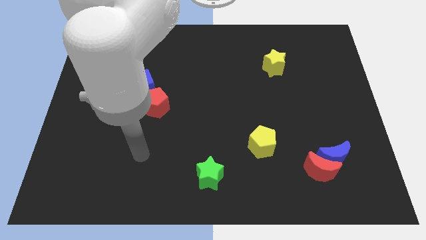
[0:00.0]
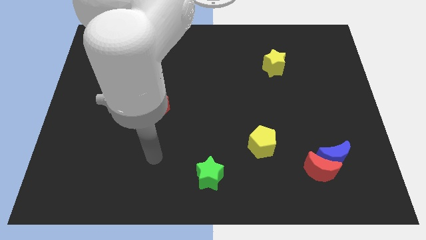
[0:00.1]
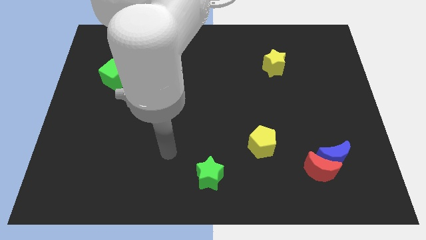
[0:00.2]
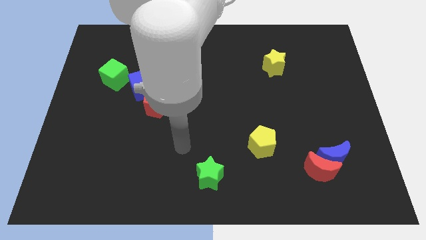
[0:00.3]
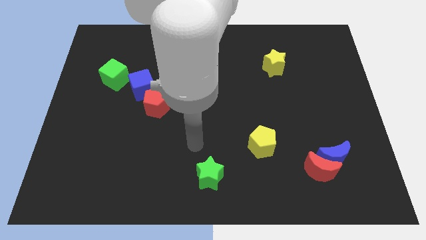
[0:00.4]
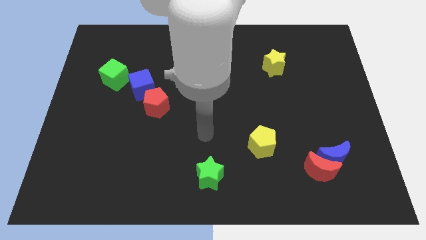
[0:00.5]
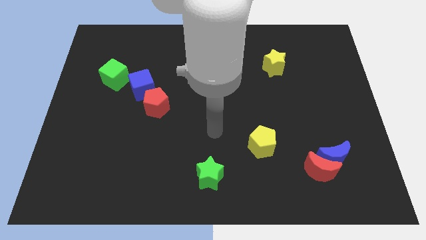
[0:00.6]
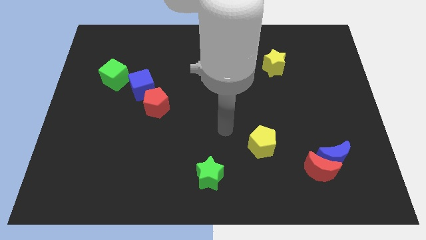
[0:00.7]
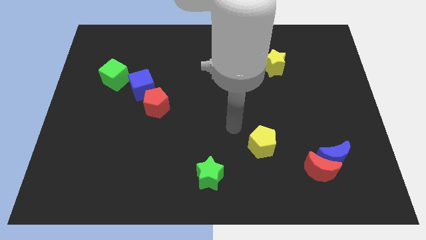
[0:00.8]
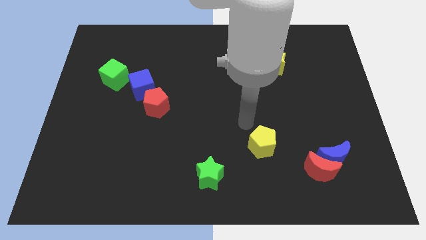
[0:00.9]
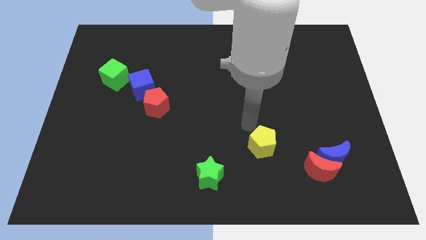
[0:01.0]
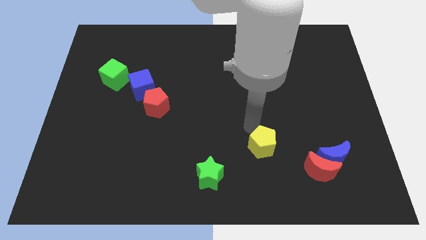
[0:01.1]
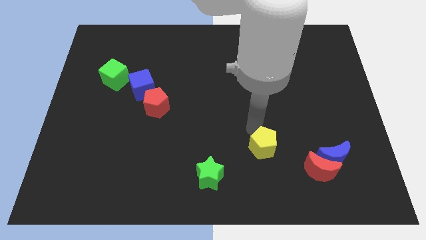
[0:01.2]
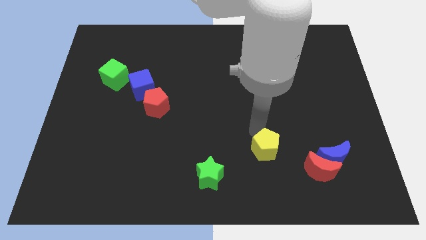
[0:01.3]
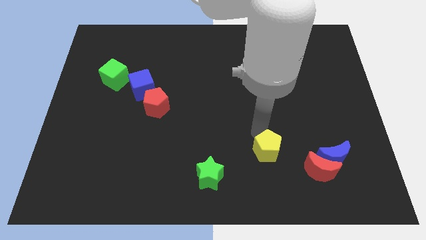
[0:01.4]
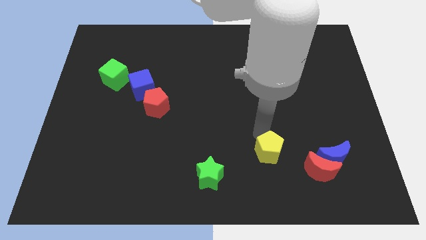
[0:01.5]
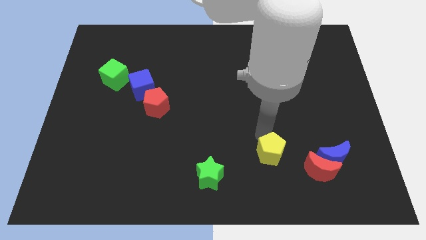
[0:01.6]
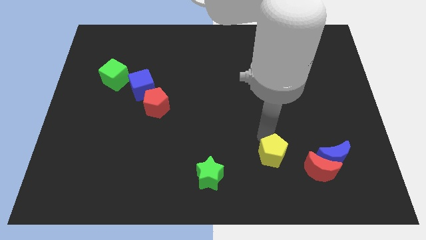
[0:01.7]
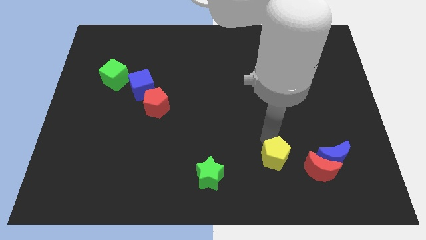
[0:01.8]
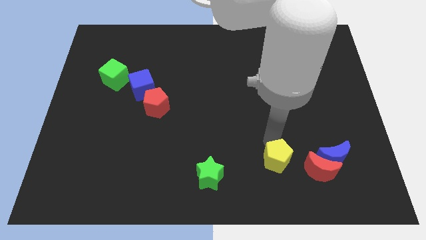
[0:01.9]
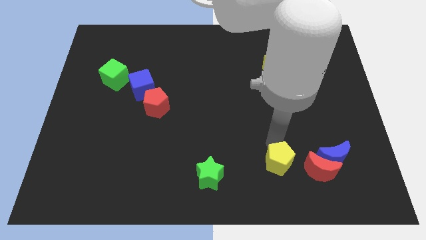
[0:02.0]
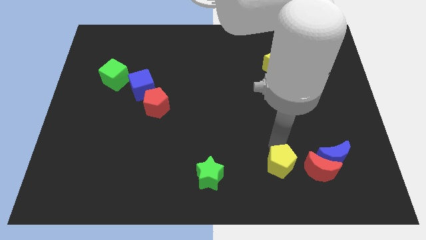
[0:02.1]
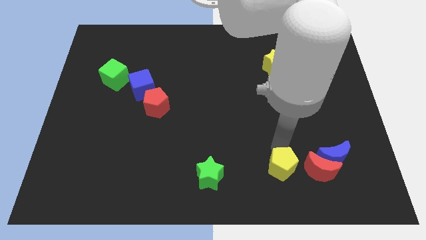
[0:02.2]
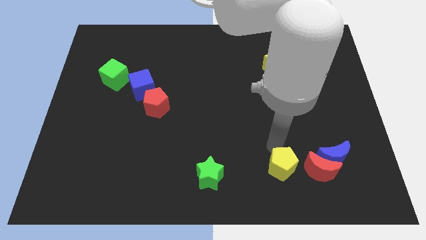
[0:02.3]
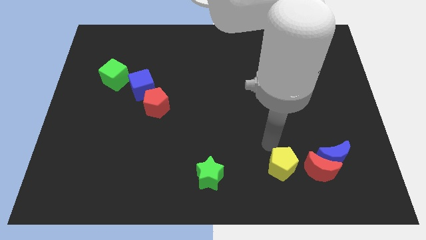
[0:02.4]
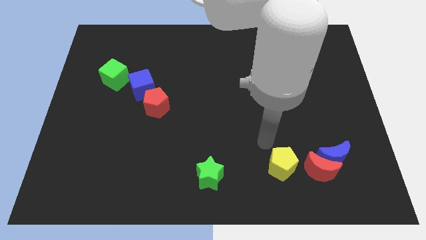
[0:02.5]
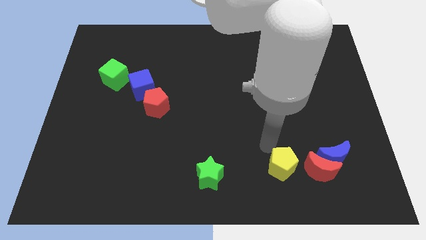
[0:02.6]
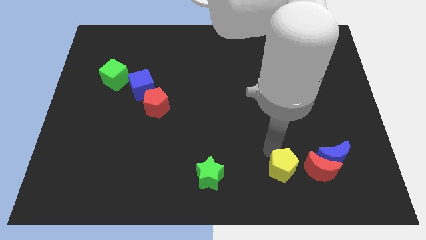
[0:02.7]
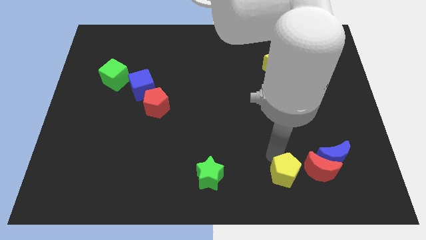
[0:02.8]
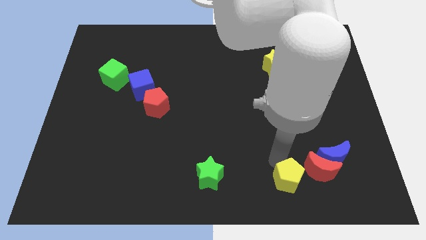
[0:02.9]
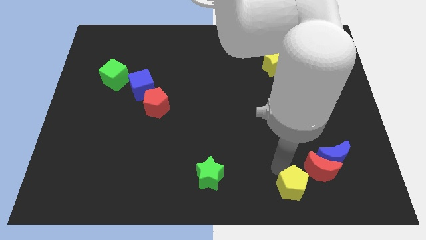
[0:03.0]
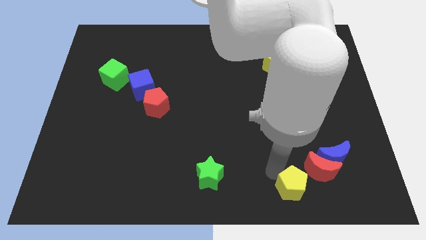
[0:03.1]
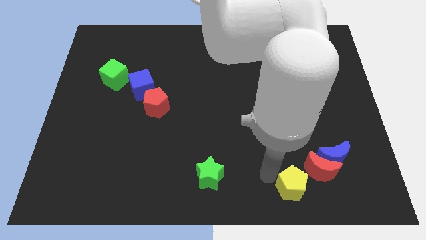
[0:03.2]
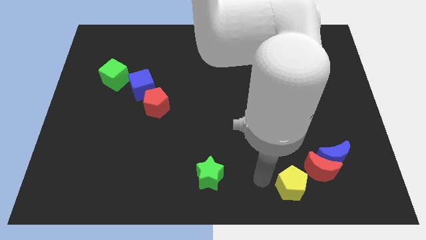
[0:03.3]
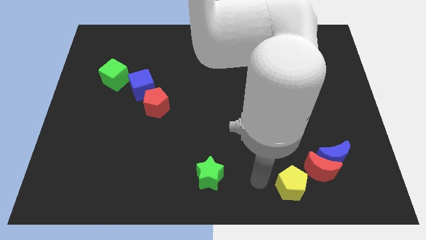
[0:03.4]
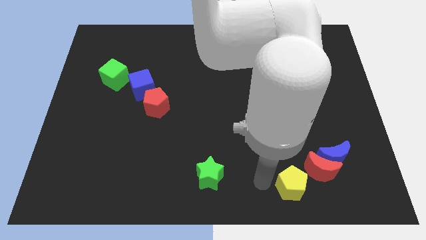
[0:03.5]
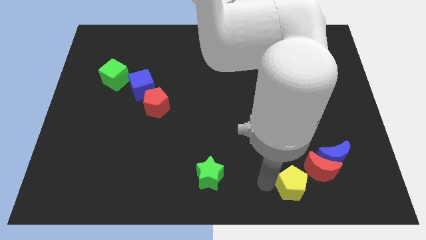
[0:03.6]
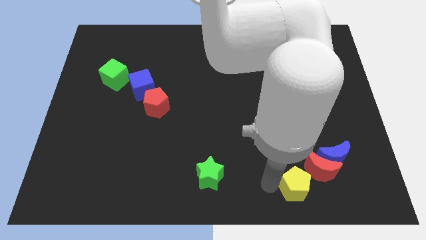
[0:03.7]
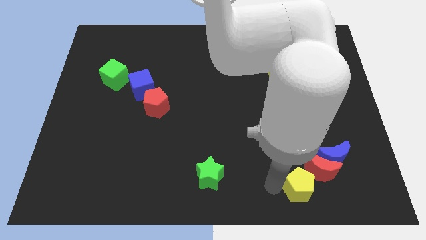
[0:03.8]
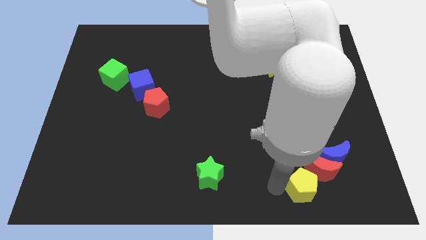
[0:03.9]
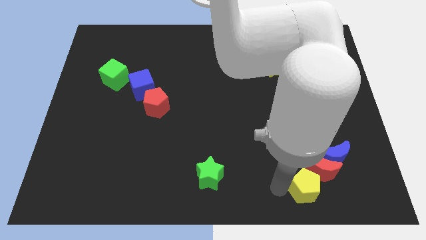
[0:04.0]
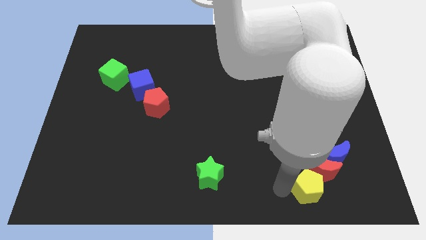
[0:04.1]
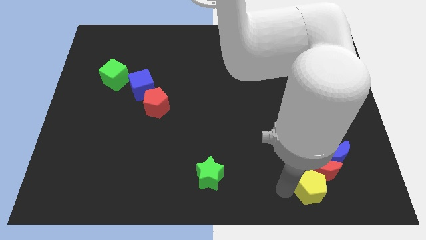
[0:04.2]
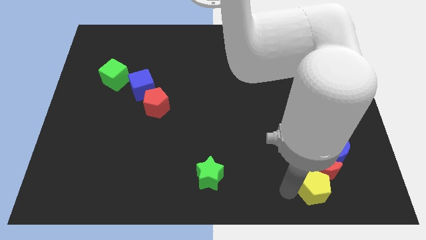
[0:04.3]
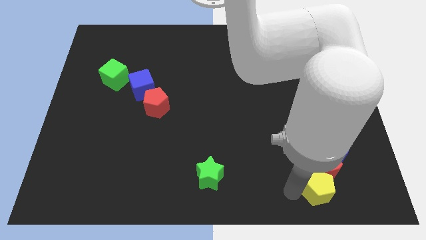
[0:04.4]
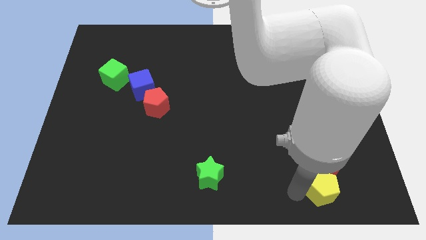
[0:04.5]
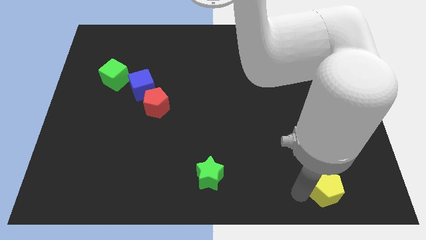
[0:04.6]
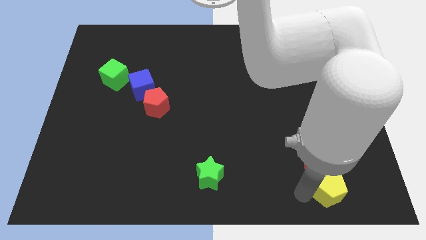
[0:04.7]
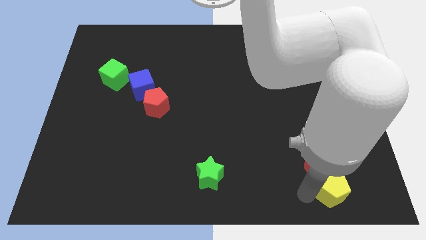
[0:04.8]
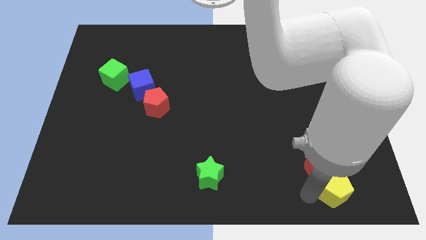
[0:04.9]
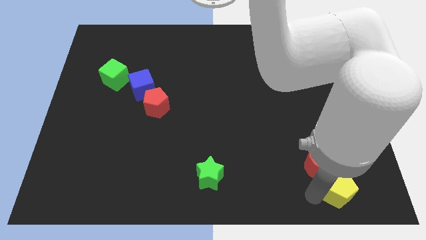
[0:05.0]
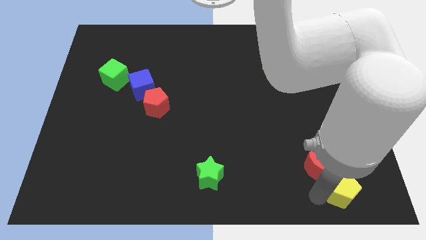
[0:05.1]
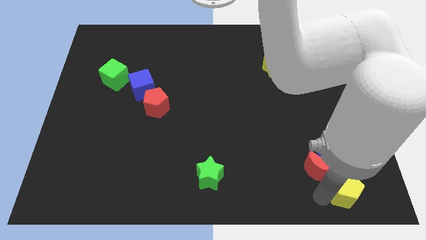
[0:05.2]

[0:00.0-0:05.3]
push the yellow pentagon to the bottom right of the board

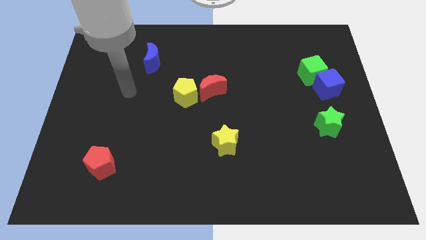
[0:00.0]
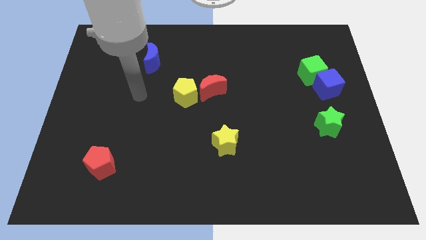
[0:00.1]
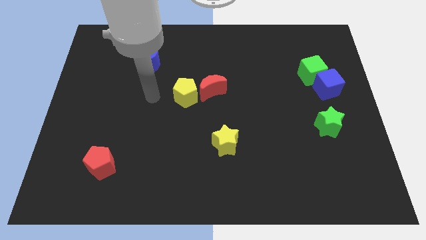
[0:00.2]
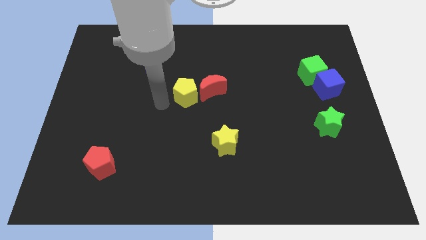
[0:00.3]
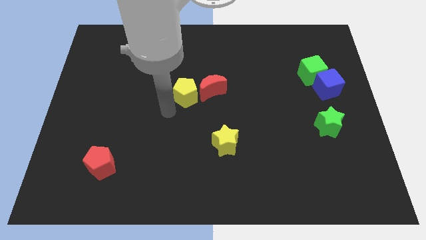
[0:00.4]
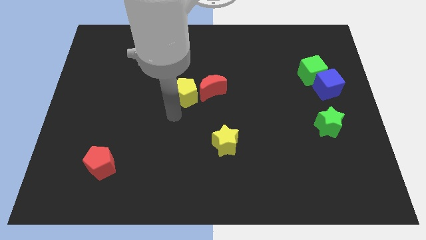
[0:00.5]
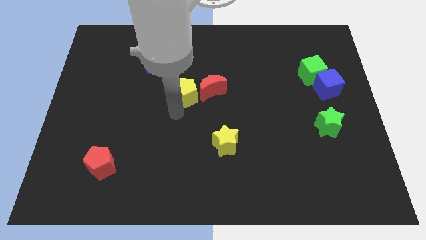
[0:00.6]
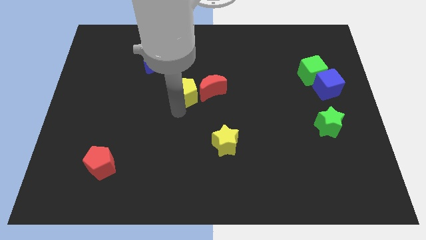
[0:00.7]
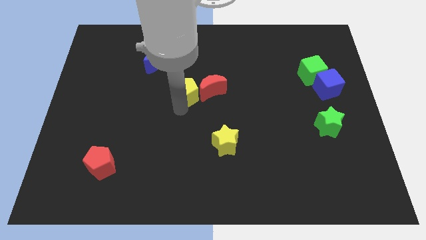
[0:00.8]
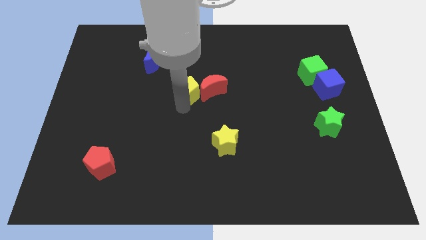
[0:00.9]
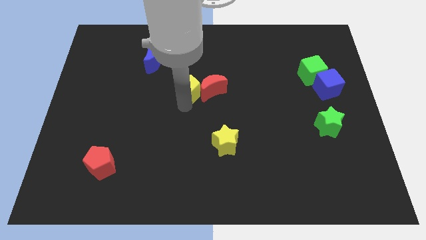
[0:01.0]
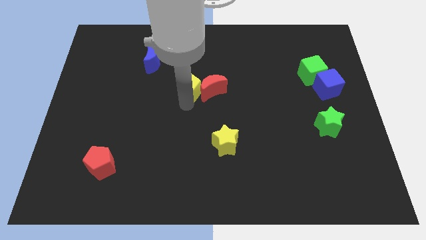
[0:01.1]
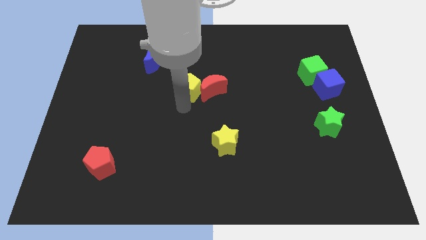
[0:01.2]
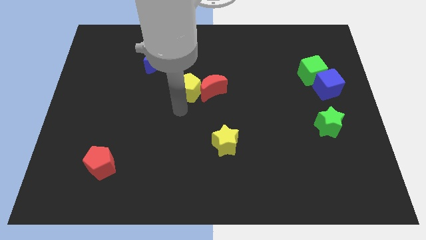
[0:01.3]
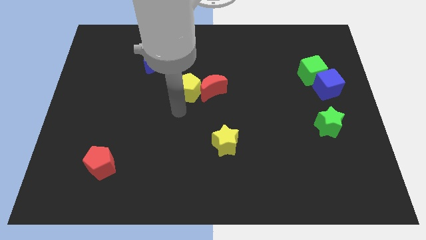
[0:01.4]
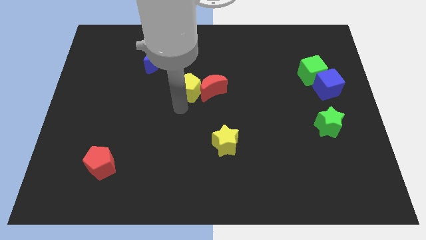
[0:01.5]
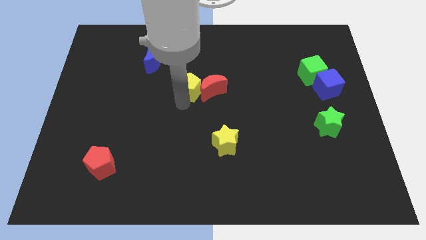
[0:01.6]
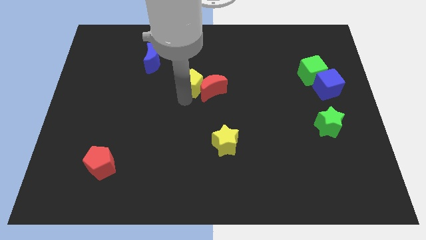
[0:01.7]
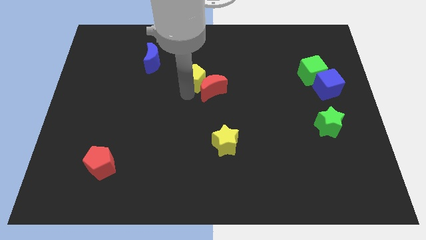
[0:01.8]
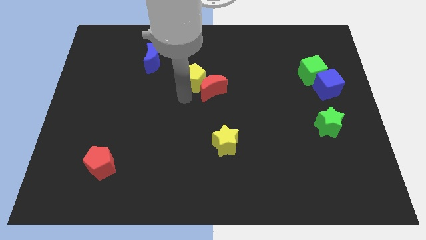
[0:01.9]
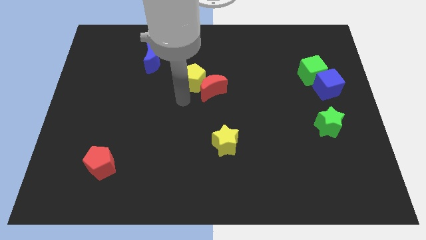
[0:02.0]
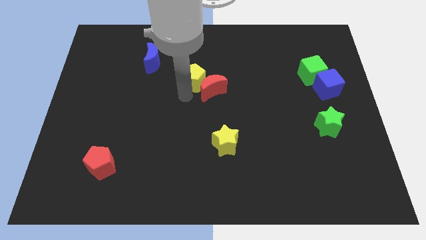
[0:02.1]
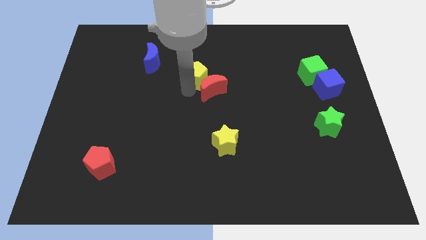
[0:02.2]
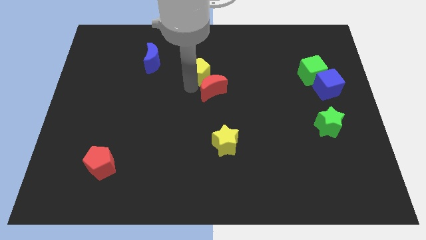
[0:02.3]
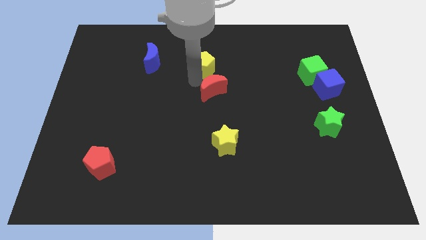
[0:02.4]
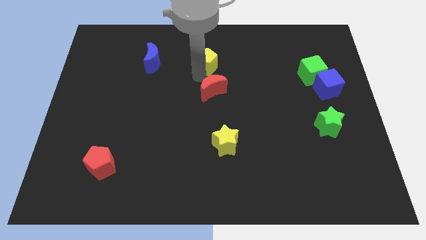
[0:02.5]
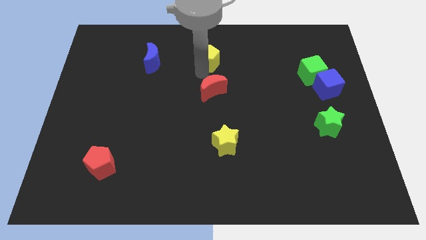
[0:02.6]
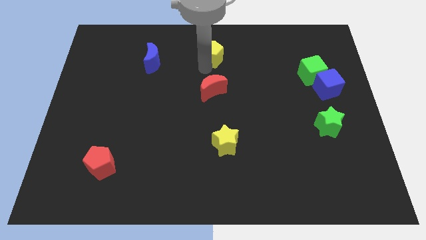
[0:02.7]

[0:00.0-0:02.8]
move the yellow pentagon to the top side
